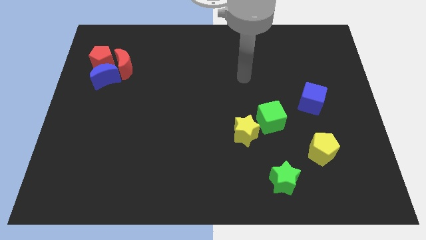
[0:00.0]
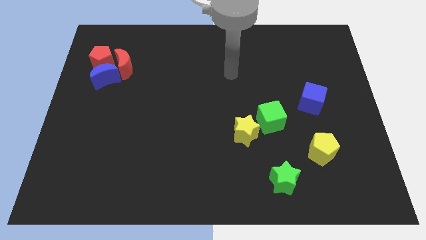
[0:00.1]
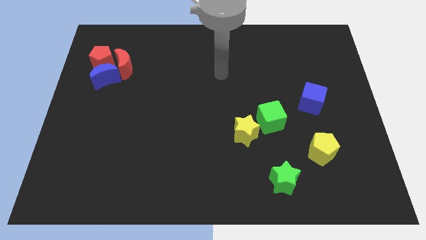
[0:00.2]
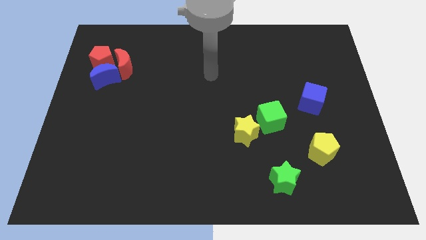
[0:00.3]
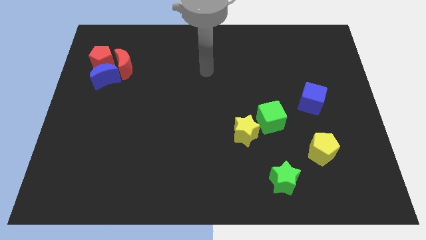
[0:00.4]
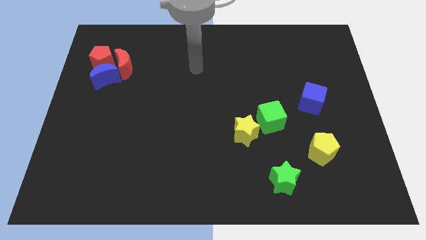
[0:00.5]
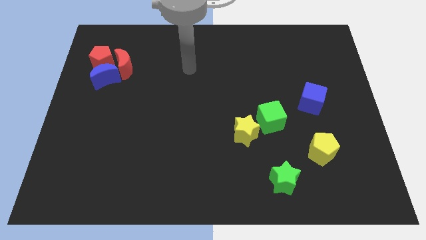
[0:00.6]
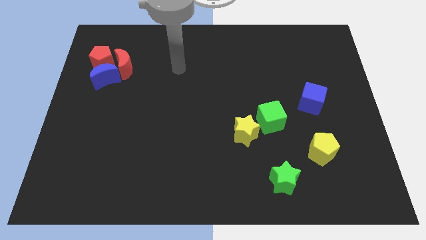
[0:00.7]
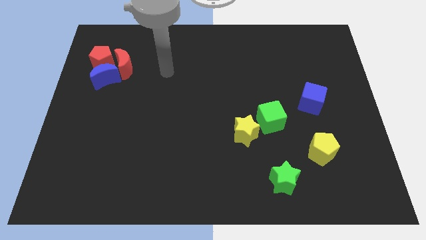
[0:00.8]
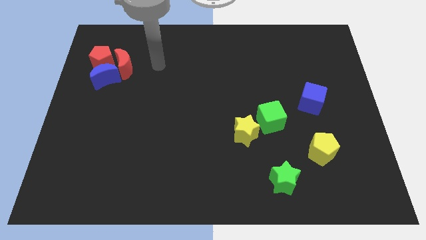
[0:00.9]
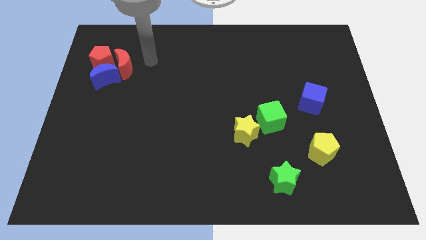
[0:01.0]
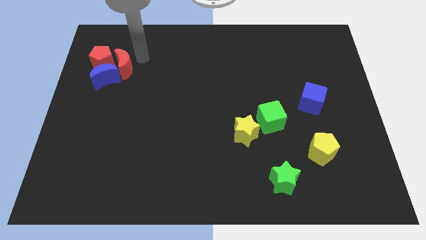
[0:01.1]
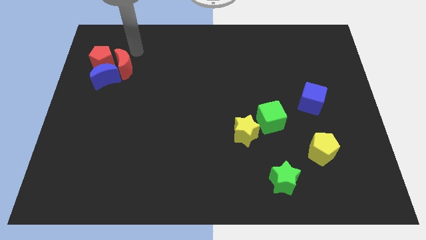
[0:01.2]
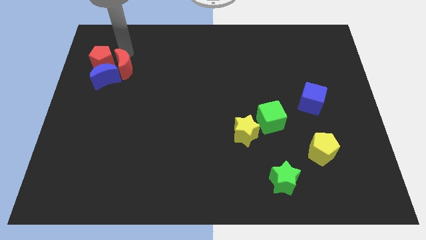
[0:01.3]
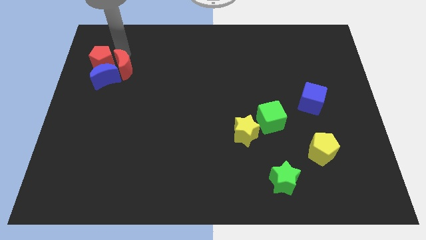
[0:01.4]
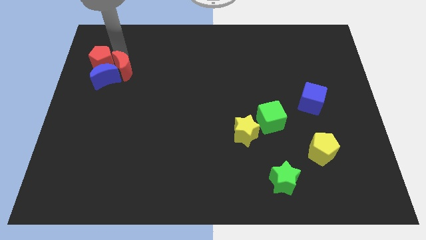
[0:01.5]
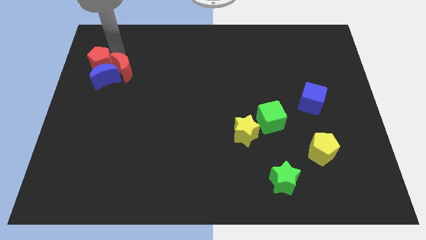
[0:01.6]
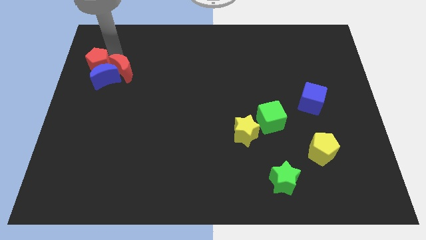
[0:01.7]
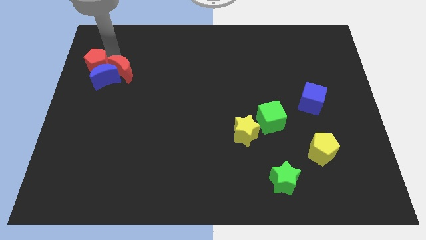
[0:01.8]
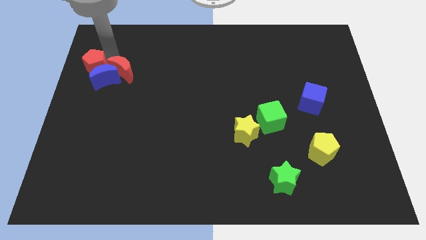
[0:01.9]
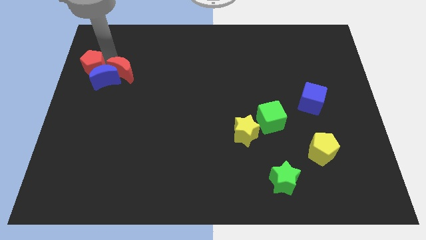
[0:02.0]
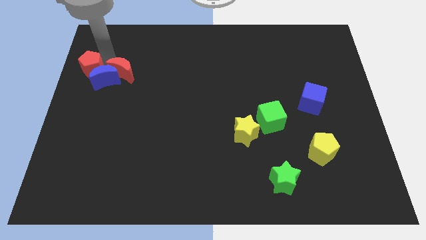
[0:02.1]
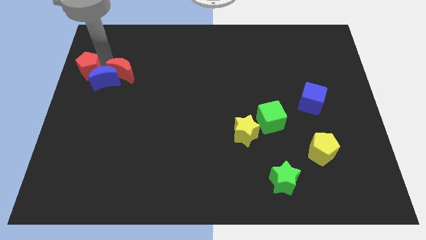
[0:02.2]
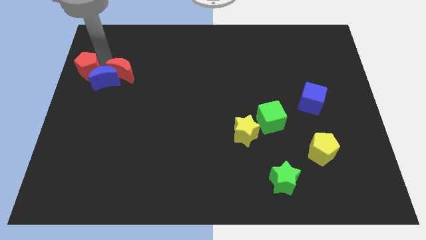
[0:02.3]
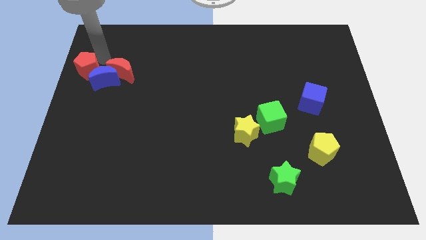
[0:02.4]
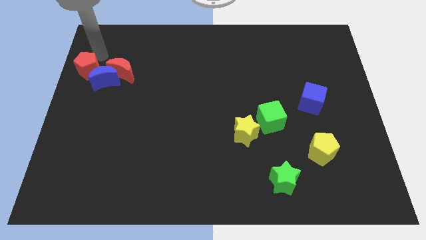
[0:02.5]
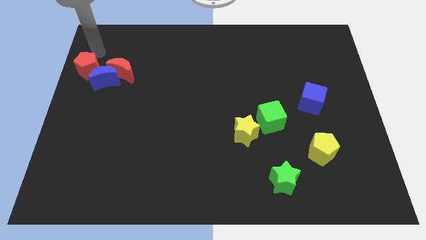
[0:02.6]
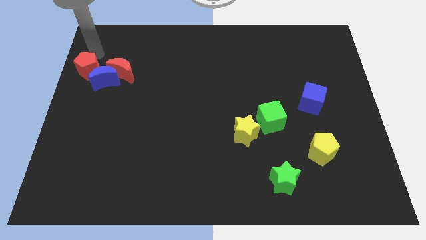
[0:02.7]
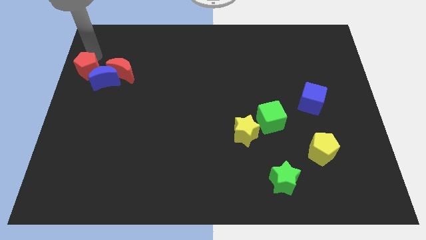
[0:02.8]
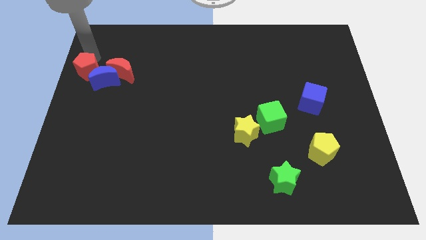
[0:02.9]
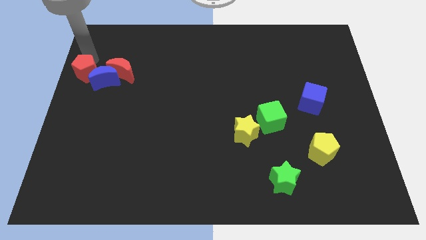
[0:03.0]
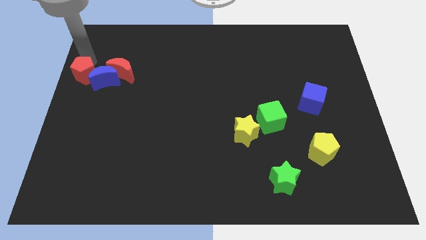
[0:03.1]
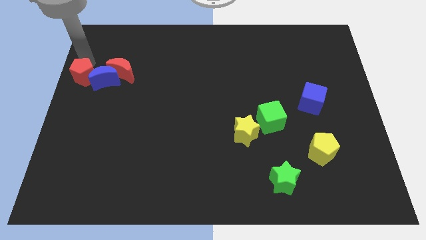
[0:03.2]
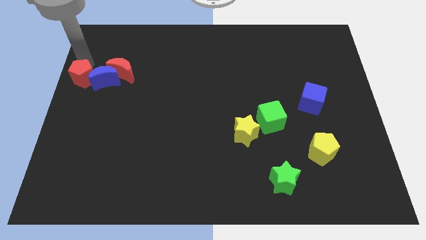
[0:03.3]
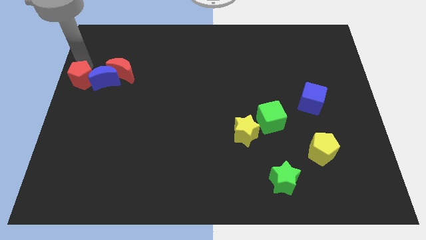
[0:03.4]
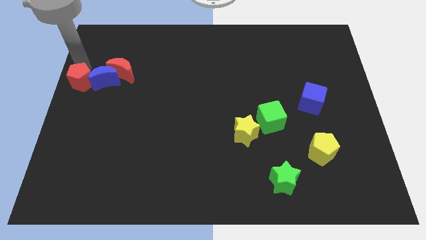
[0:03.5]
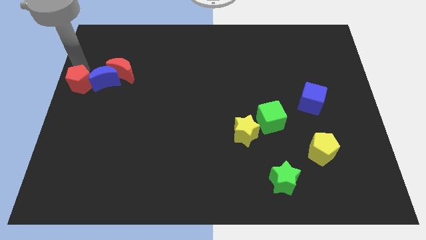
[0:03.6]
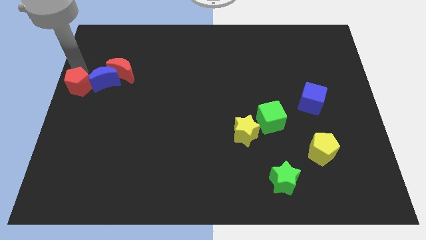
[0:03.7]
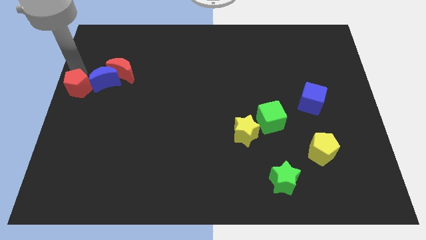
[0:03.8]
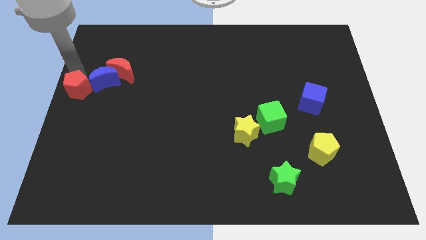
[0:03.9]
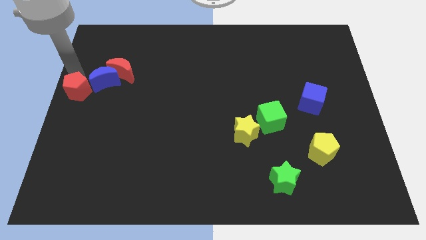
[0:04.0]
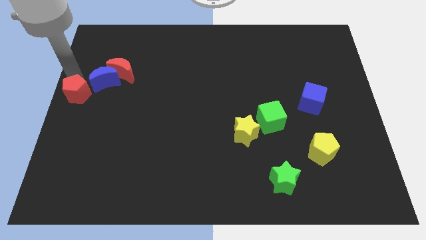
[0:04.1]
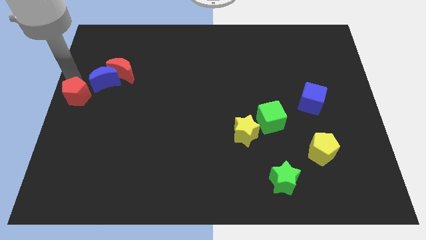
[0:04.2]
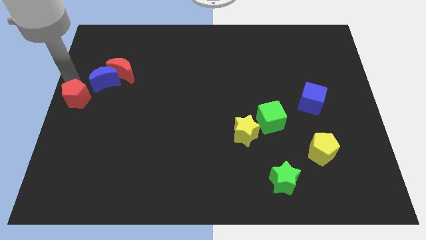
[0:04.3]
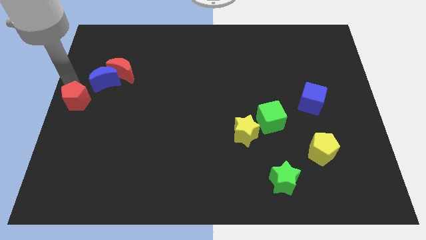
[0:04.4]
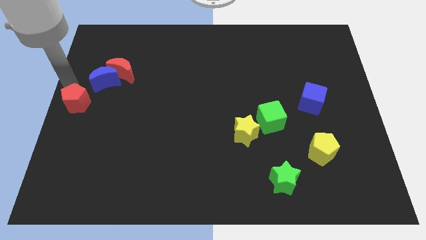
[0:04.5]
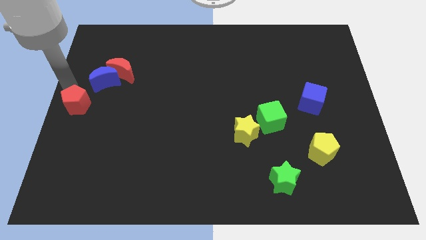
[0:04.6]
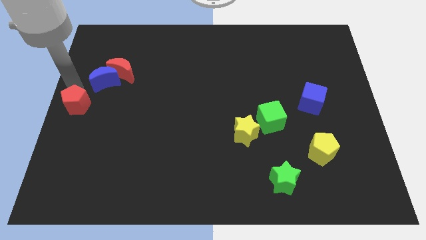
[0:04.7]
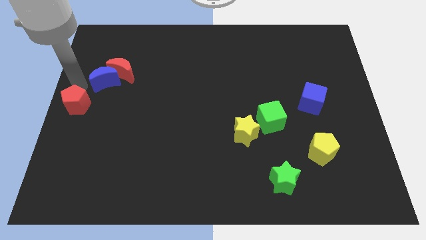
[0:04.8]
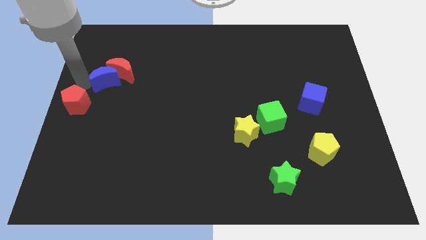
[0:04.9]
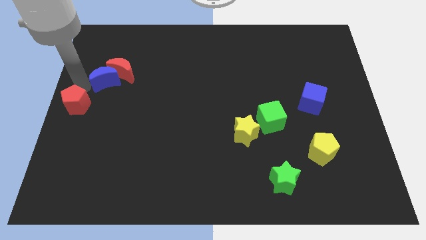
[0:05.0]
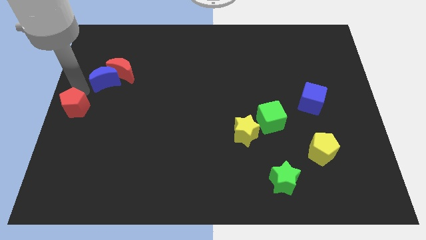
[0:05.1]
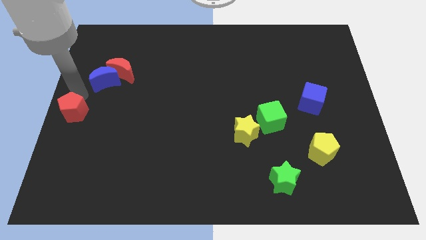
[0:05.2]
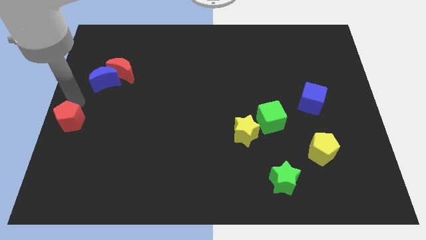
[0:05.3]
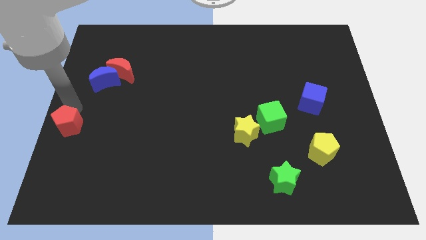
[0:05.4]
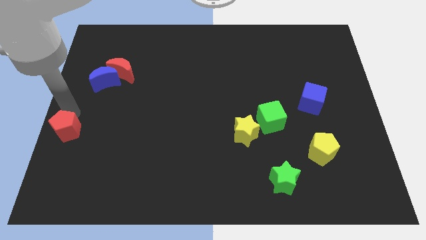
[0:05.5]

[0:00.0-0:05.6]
push the red pentagon downwards

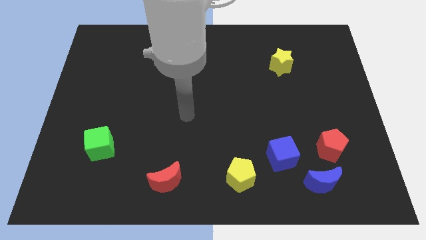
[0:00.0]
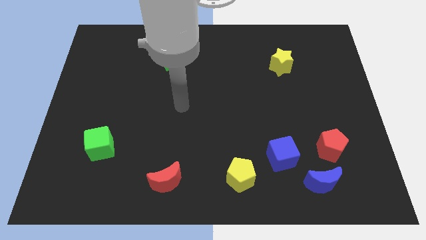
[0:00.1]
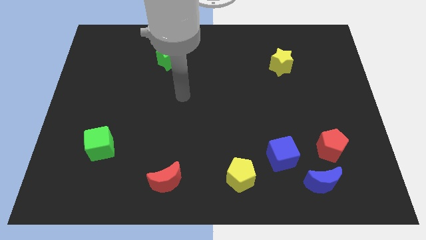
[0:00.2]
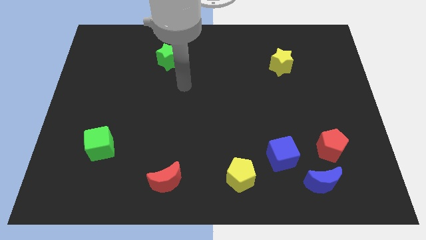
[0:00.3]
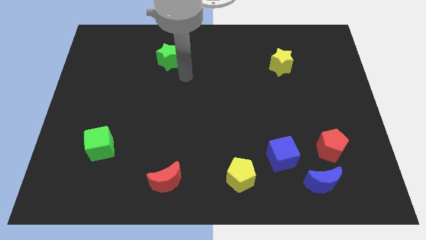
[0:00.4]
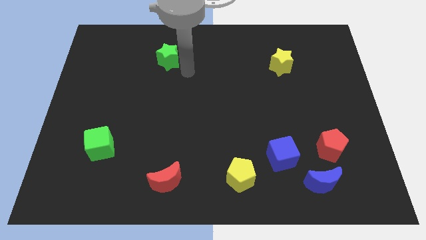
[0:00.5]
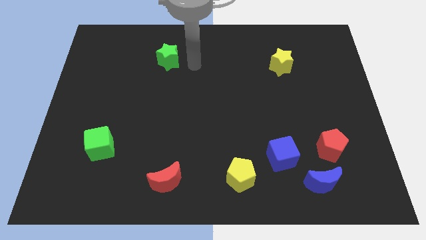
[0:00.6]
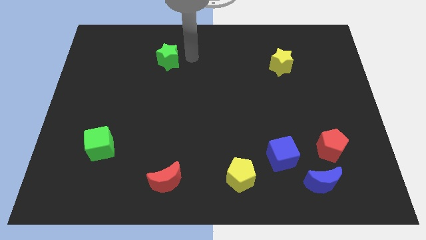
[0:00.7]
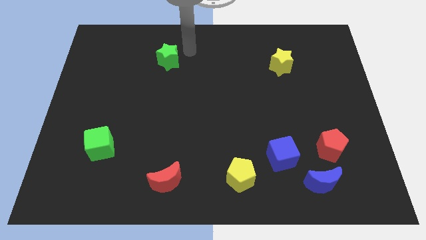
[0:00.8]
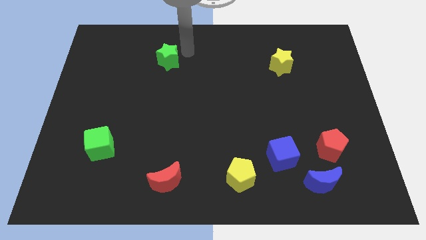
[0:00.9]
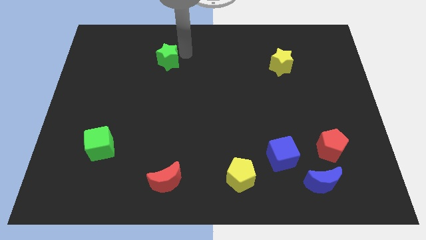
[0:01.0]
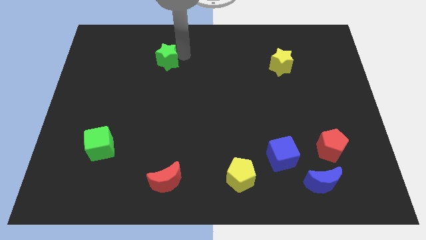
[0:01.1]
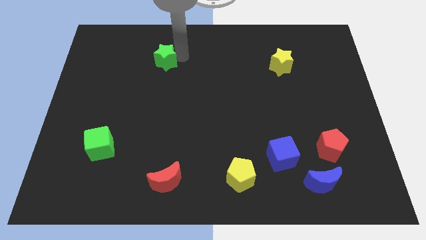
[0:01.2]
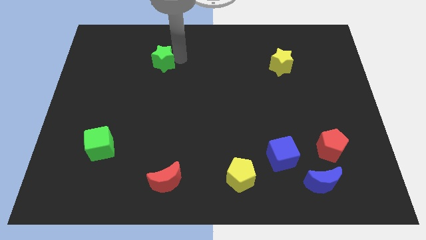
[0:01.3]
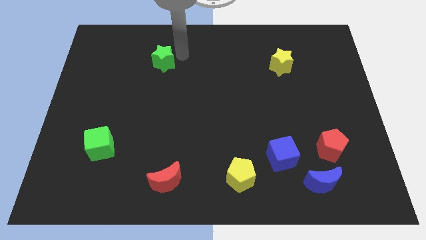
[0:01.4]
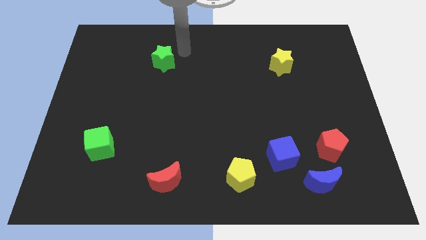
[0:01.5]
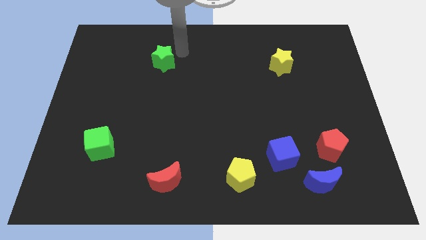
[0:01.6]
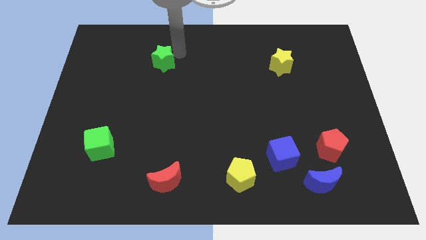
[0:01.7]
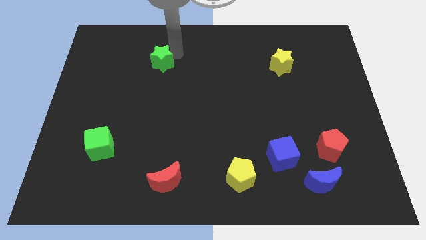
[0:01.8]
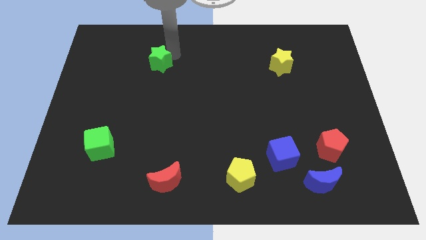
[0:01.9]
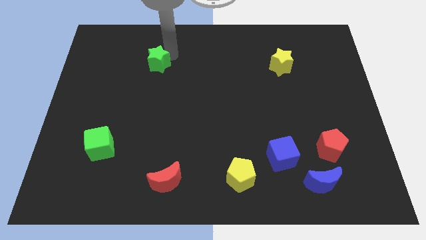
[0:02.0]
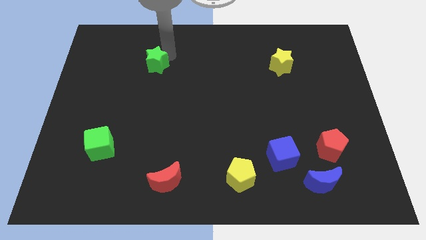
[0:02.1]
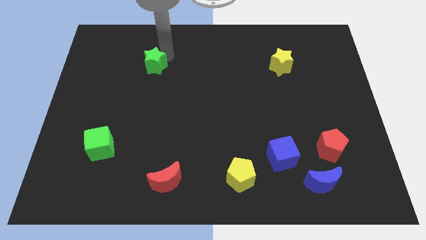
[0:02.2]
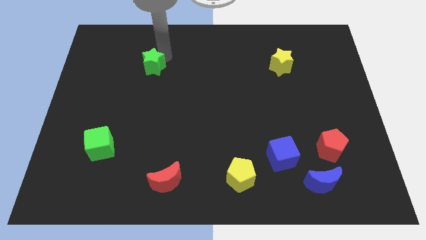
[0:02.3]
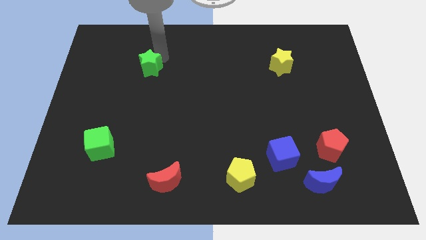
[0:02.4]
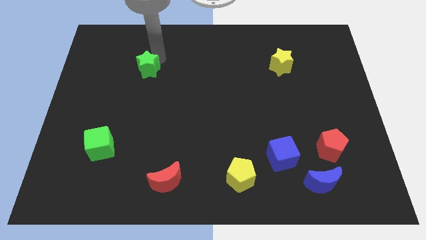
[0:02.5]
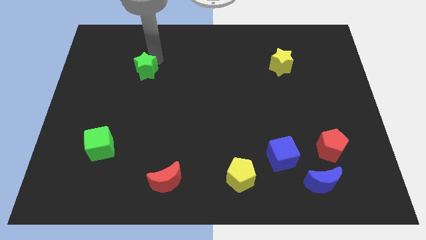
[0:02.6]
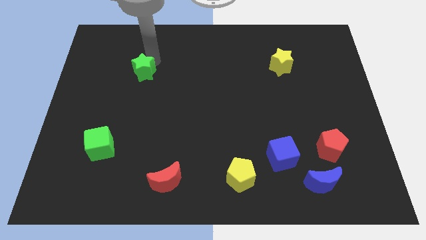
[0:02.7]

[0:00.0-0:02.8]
push the green star somewhat downwards and then to the left
